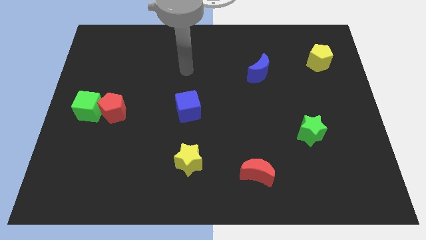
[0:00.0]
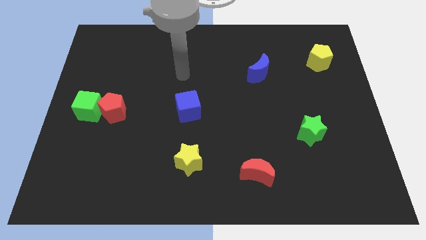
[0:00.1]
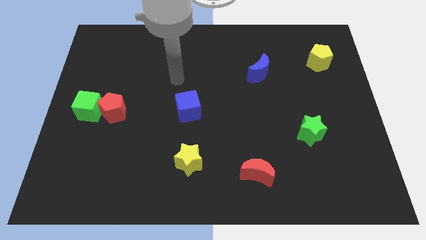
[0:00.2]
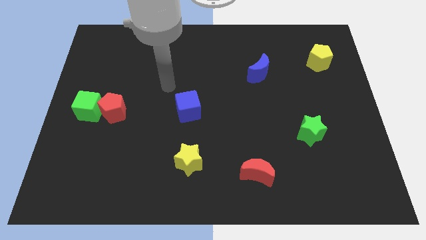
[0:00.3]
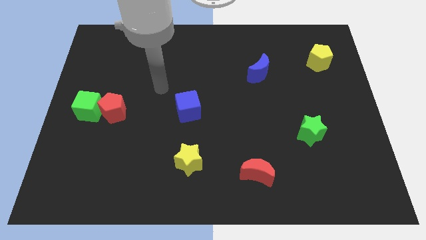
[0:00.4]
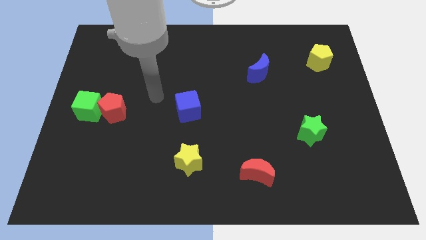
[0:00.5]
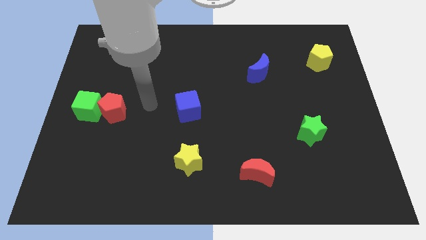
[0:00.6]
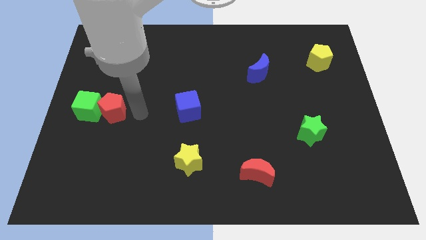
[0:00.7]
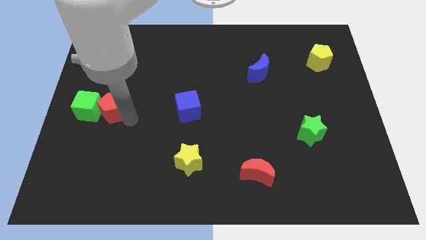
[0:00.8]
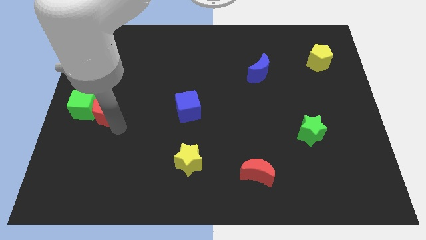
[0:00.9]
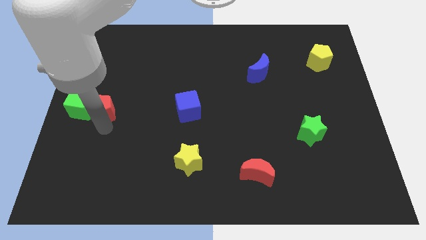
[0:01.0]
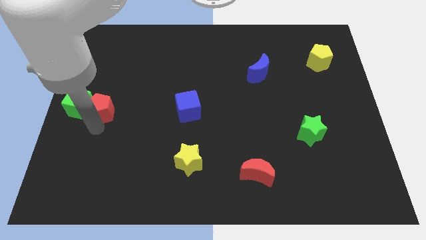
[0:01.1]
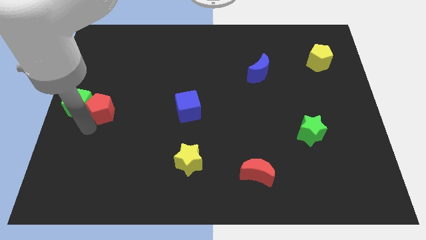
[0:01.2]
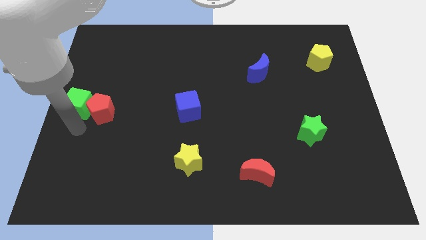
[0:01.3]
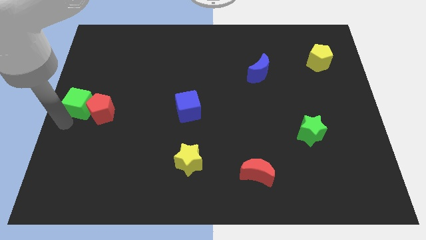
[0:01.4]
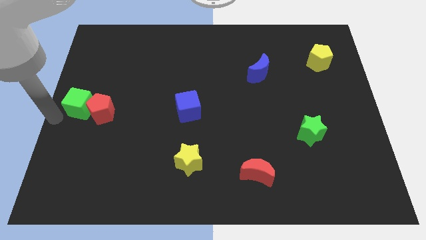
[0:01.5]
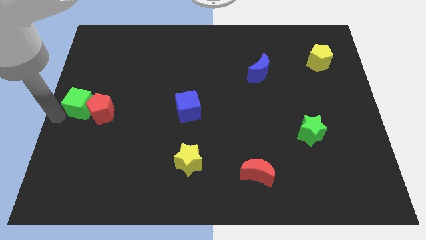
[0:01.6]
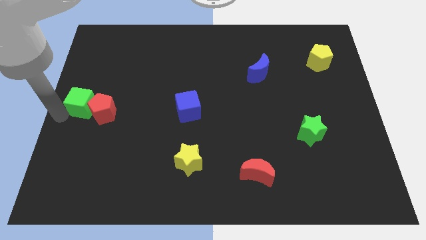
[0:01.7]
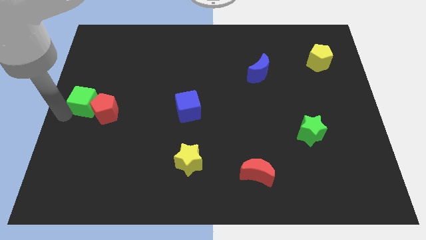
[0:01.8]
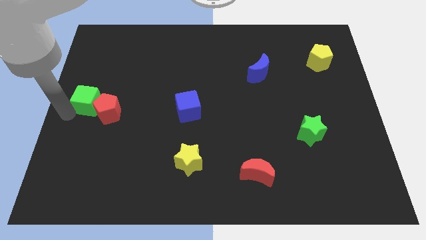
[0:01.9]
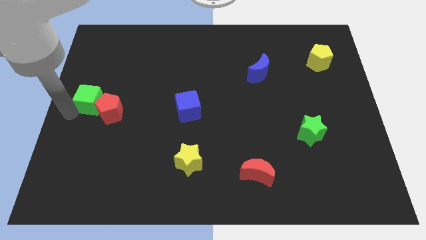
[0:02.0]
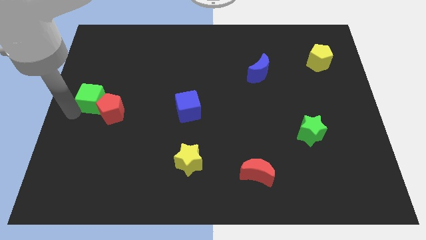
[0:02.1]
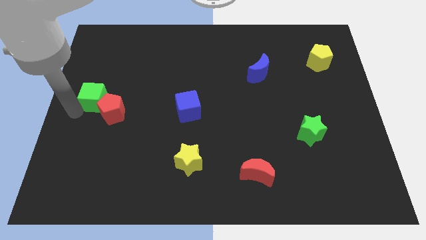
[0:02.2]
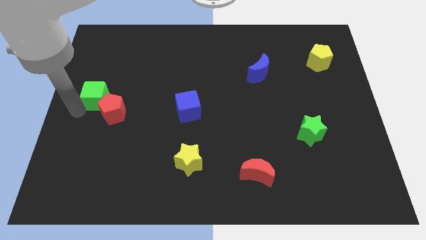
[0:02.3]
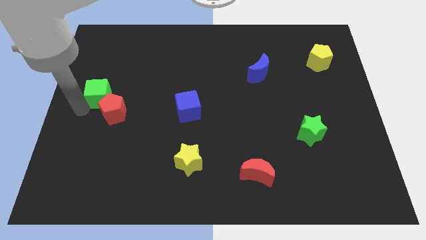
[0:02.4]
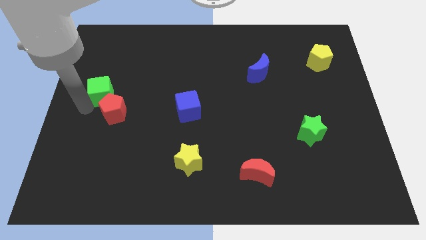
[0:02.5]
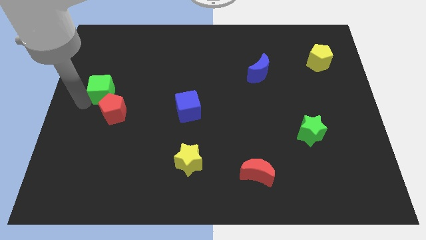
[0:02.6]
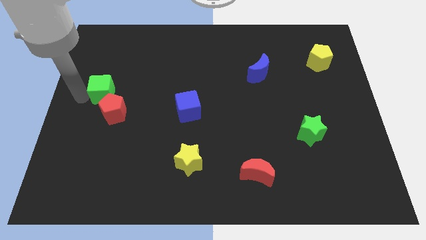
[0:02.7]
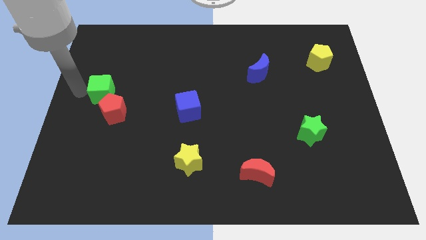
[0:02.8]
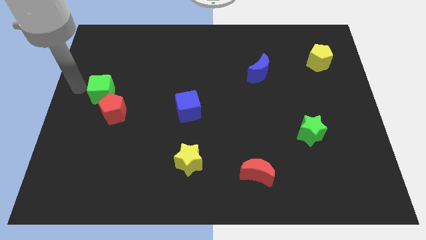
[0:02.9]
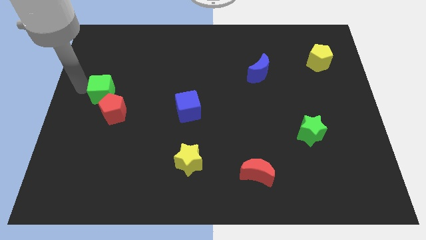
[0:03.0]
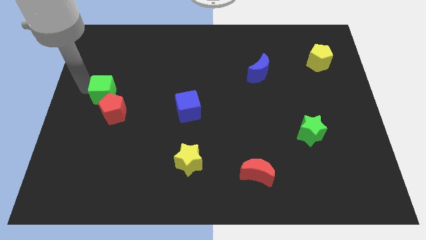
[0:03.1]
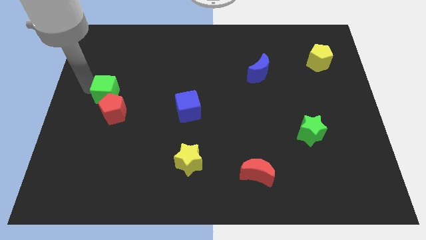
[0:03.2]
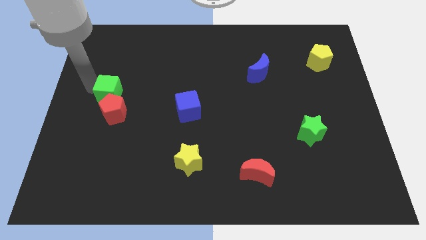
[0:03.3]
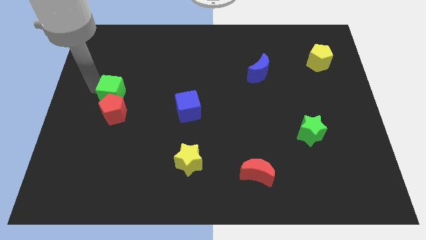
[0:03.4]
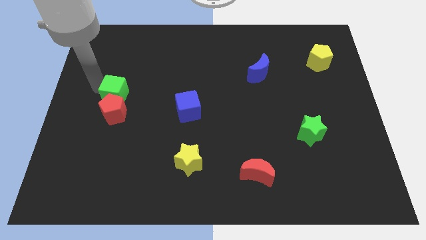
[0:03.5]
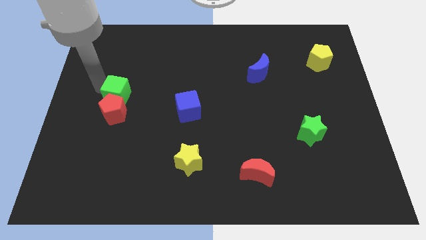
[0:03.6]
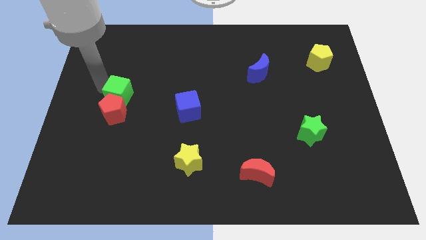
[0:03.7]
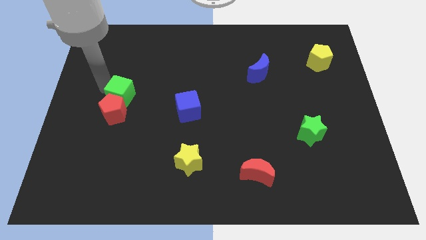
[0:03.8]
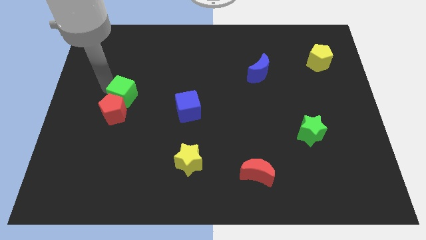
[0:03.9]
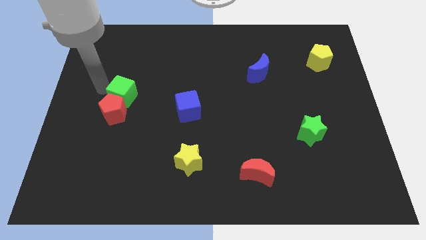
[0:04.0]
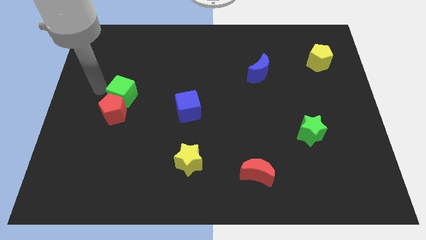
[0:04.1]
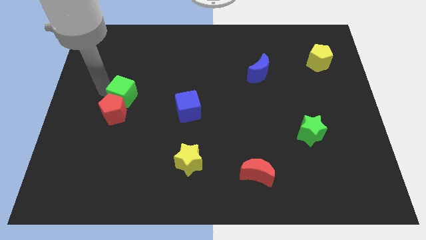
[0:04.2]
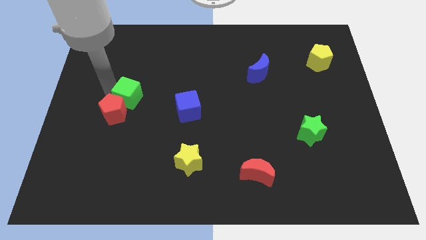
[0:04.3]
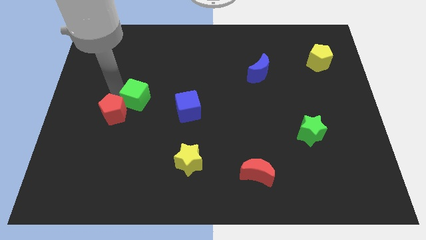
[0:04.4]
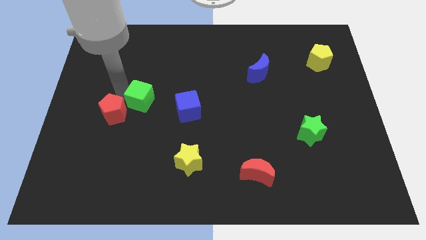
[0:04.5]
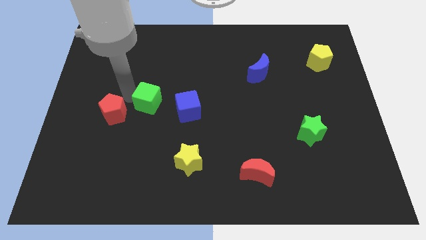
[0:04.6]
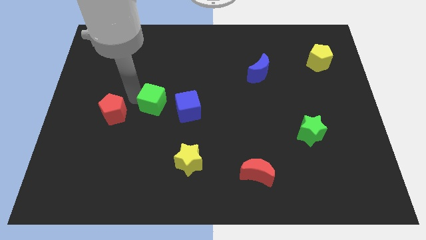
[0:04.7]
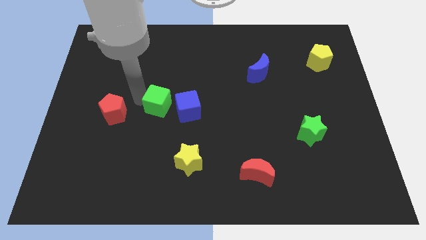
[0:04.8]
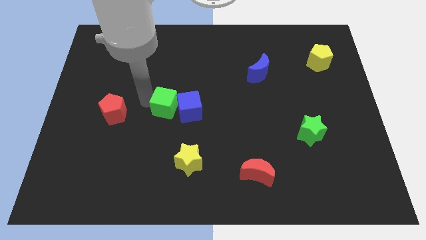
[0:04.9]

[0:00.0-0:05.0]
move the green cube close to the blue cube
